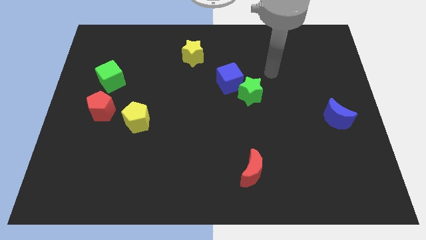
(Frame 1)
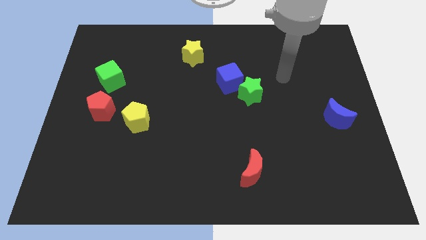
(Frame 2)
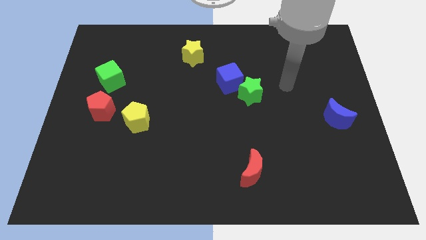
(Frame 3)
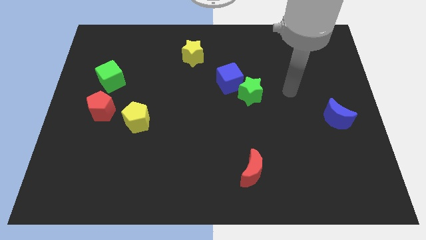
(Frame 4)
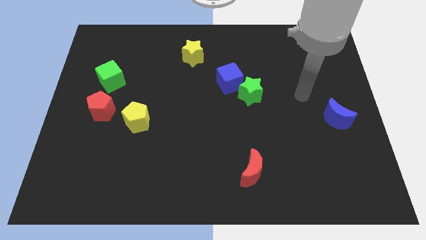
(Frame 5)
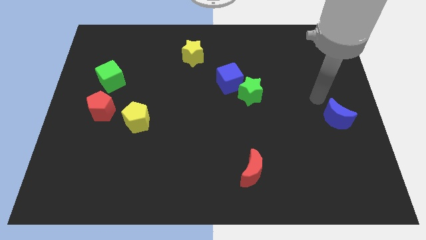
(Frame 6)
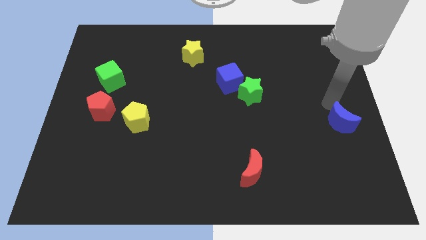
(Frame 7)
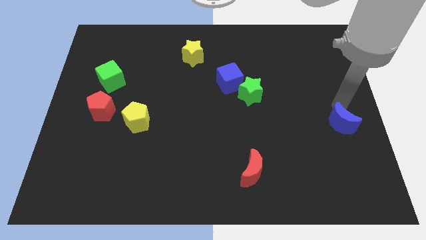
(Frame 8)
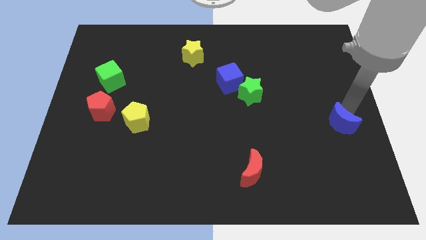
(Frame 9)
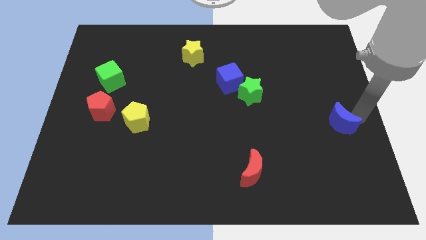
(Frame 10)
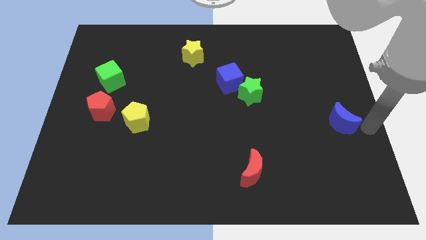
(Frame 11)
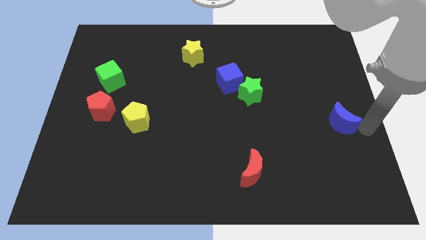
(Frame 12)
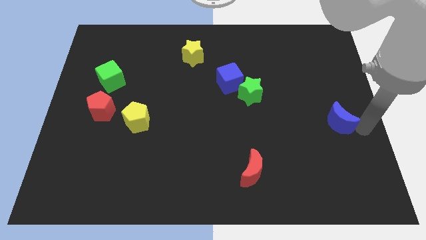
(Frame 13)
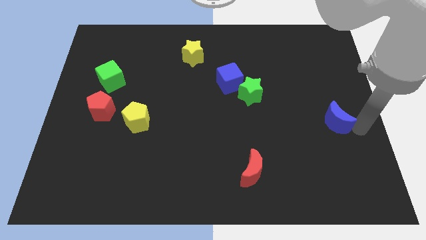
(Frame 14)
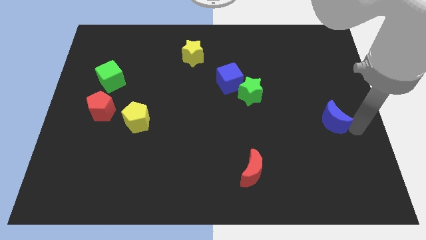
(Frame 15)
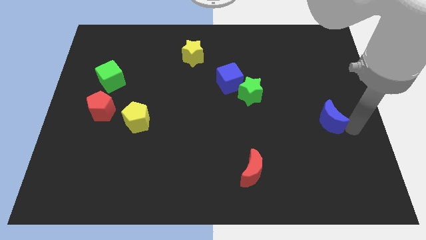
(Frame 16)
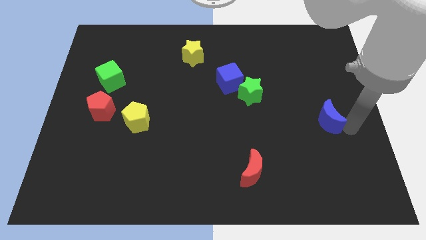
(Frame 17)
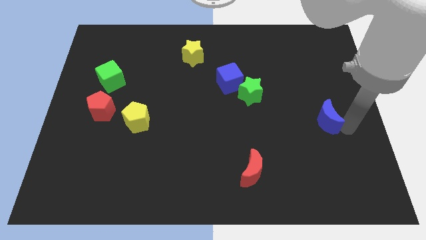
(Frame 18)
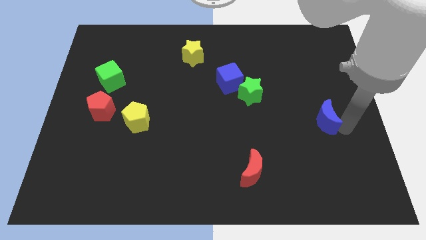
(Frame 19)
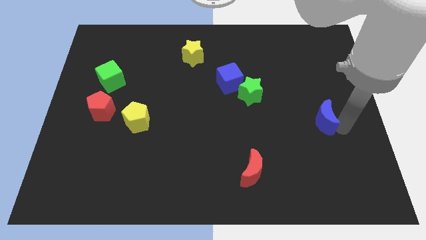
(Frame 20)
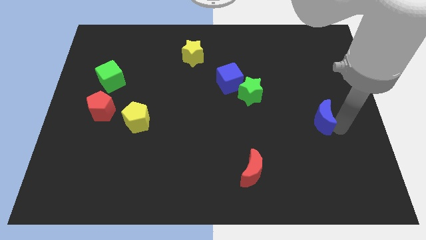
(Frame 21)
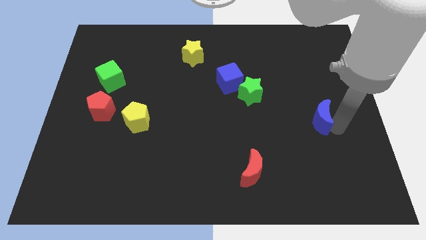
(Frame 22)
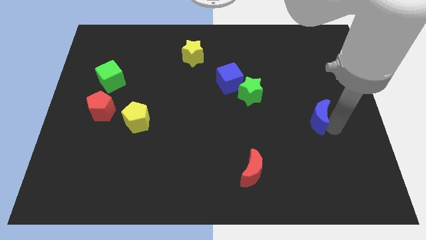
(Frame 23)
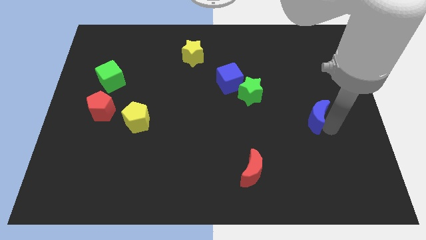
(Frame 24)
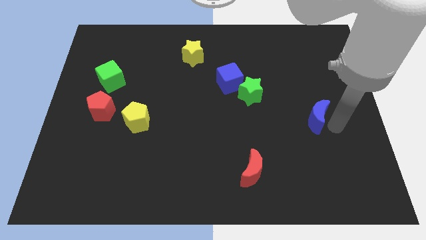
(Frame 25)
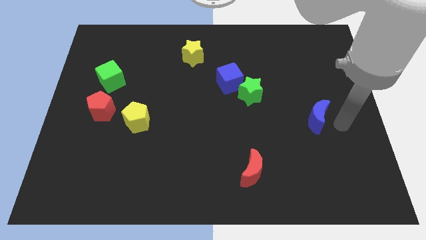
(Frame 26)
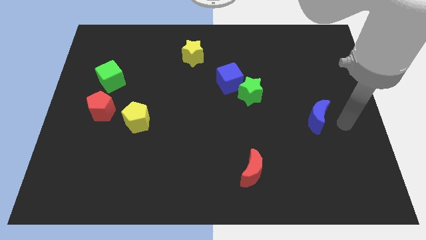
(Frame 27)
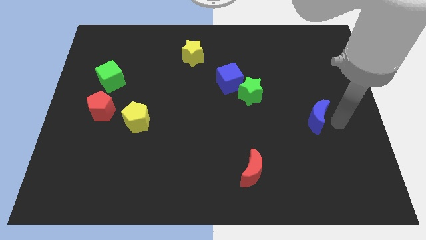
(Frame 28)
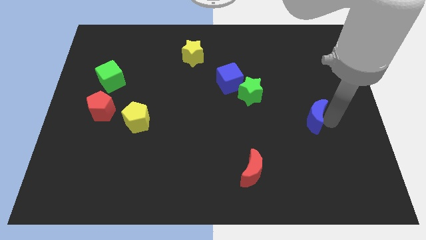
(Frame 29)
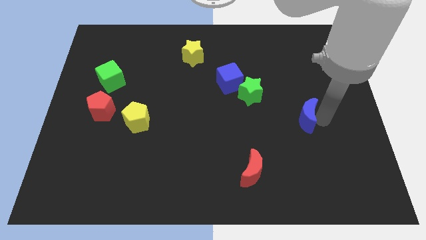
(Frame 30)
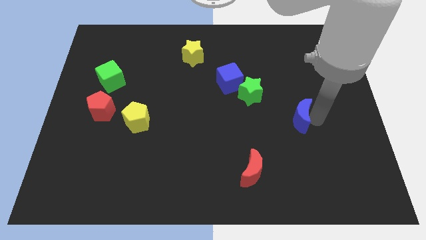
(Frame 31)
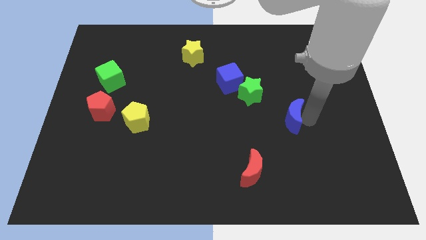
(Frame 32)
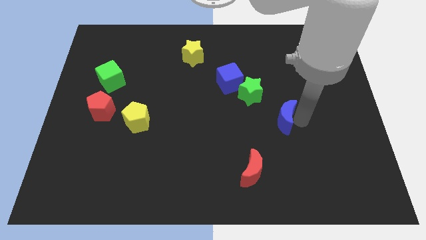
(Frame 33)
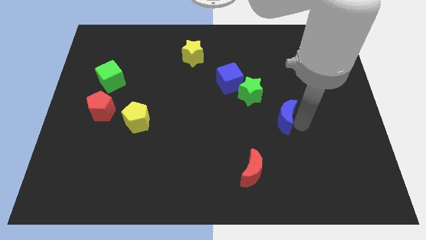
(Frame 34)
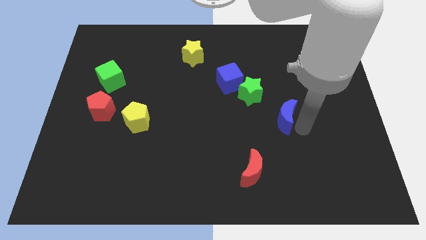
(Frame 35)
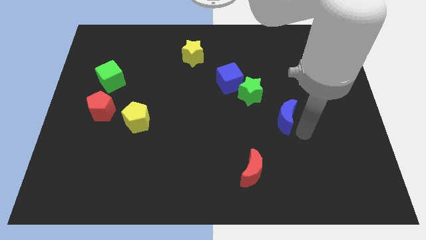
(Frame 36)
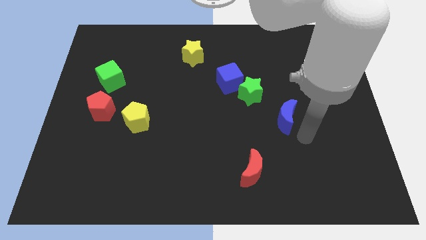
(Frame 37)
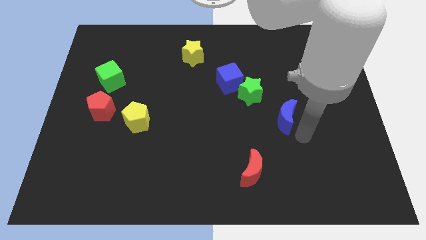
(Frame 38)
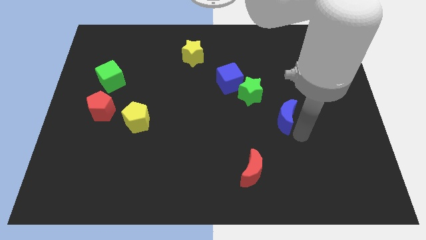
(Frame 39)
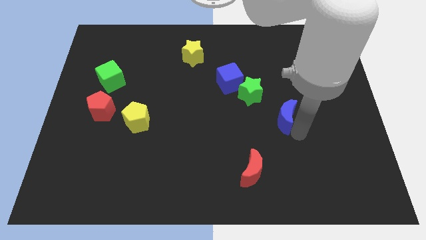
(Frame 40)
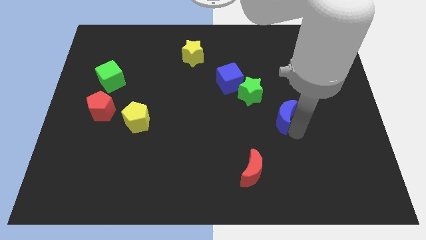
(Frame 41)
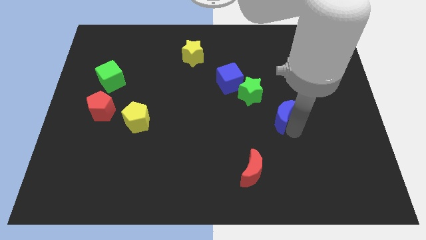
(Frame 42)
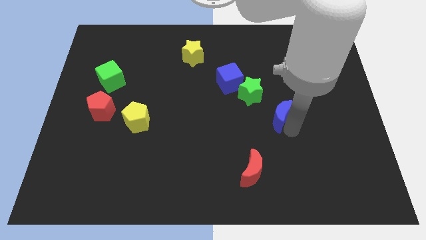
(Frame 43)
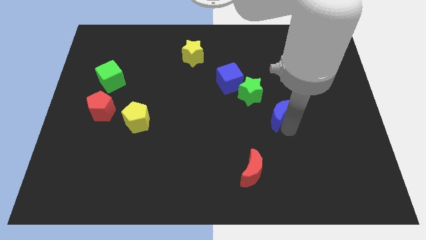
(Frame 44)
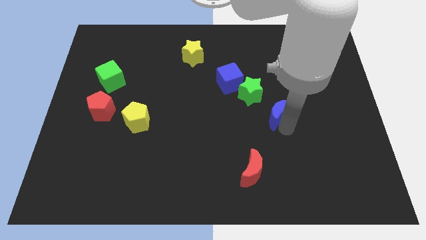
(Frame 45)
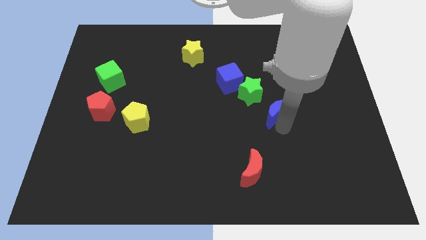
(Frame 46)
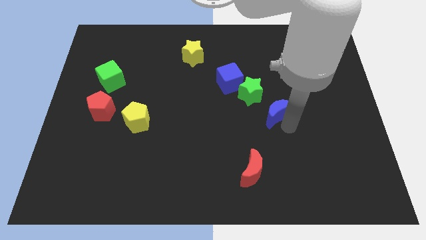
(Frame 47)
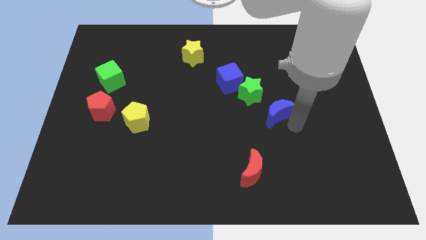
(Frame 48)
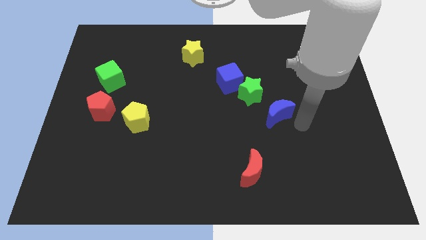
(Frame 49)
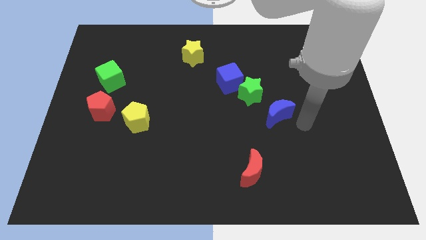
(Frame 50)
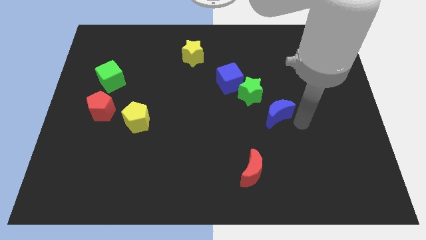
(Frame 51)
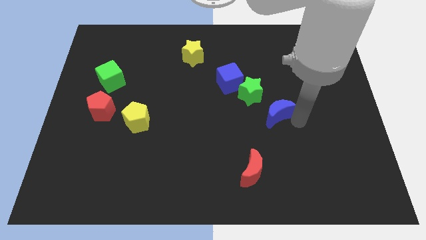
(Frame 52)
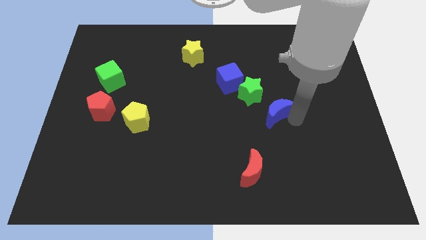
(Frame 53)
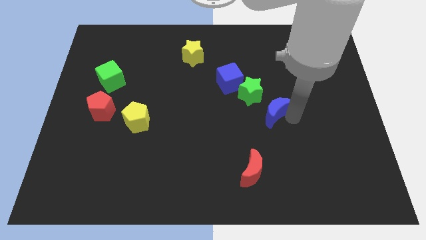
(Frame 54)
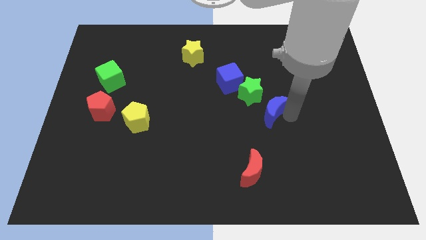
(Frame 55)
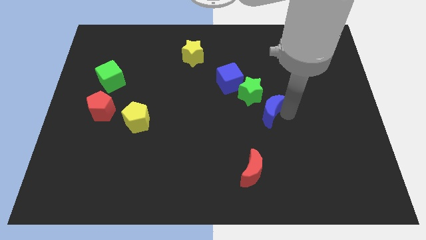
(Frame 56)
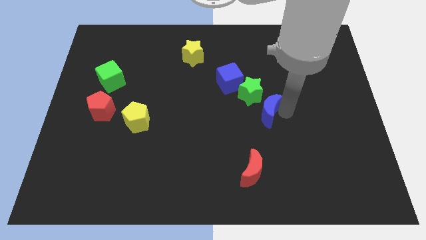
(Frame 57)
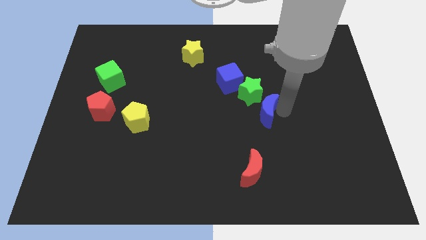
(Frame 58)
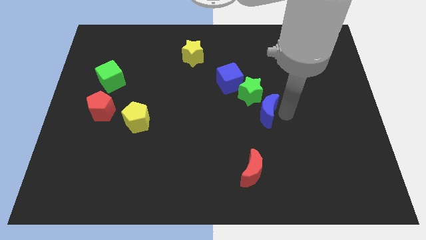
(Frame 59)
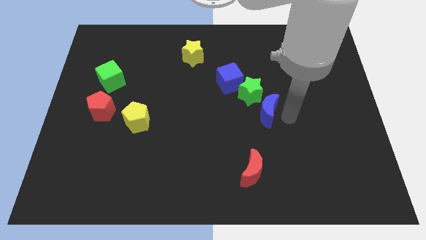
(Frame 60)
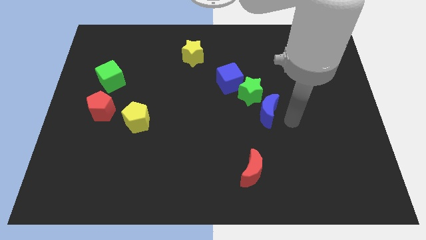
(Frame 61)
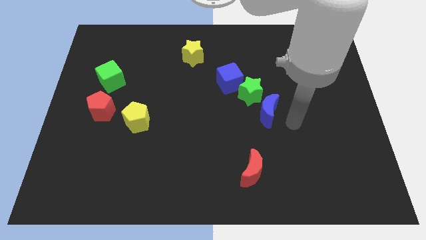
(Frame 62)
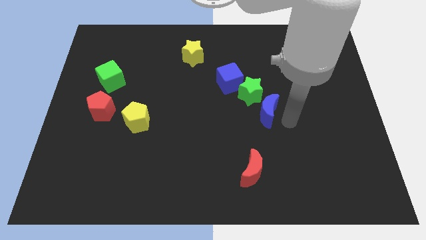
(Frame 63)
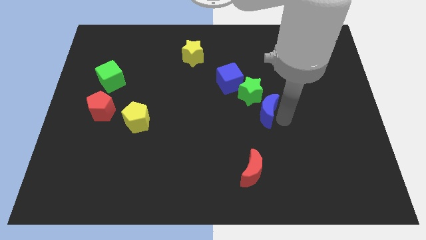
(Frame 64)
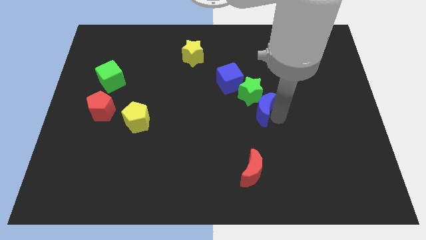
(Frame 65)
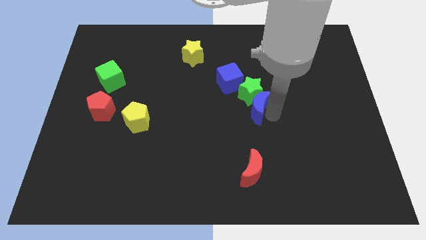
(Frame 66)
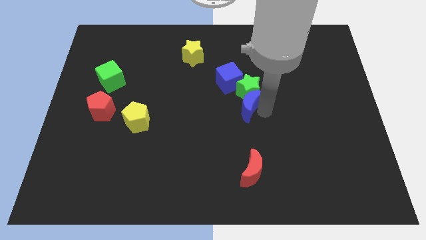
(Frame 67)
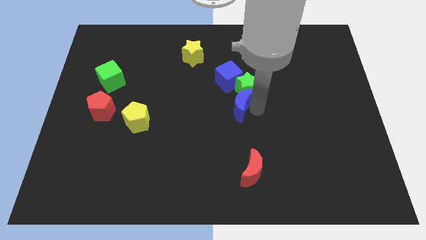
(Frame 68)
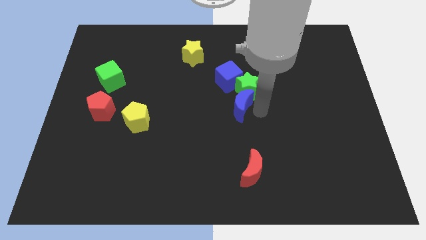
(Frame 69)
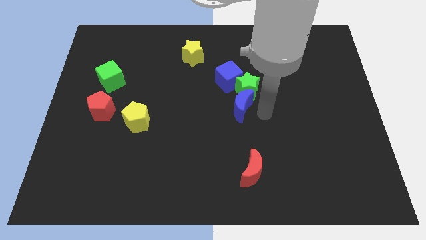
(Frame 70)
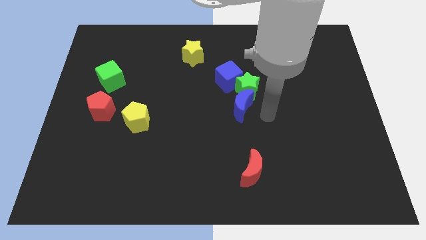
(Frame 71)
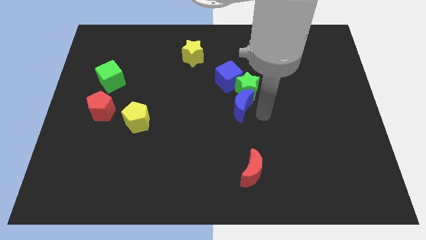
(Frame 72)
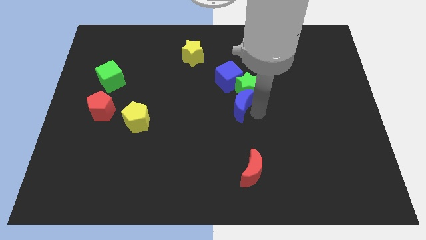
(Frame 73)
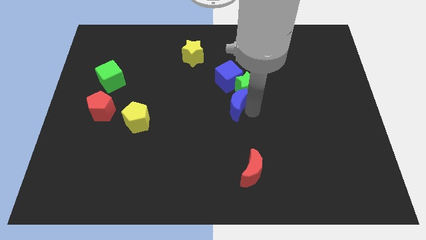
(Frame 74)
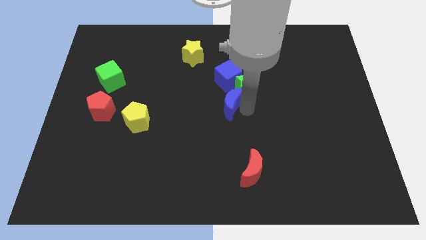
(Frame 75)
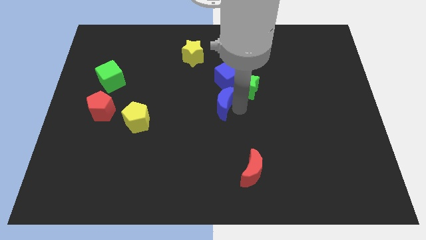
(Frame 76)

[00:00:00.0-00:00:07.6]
slide the blue moon diagonally down and to the left of the blue cube
